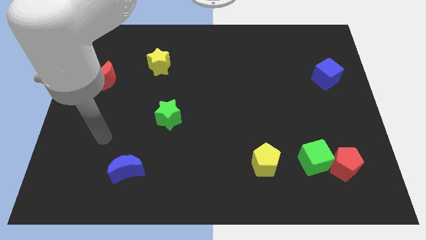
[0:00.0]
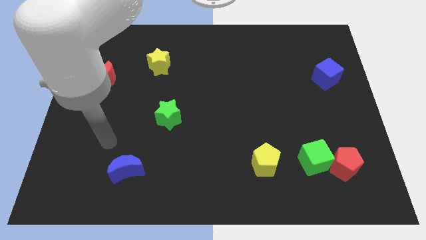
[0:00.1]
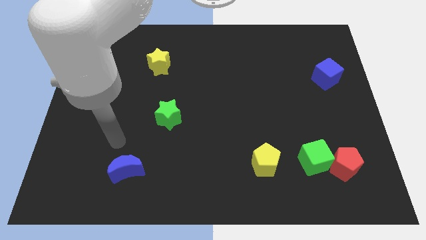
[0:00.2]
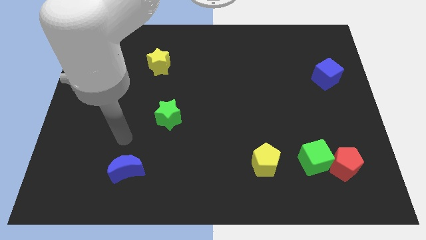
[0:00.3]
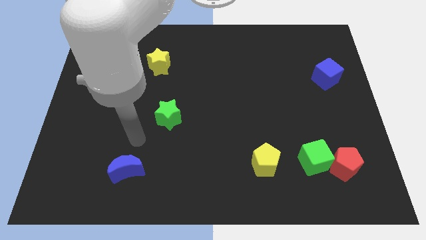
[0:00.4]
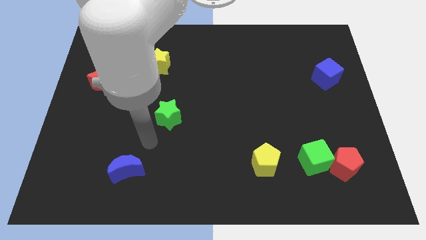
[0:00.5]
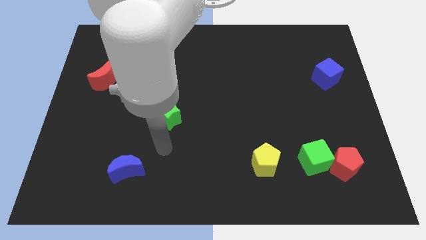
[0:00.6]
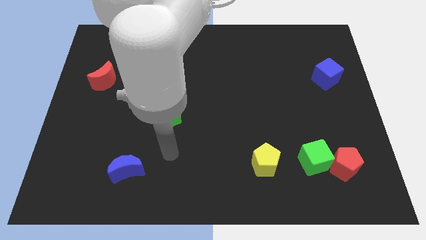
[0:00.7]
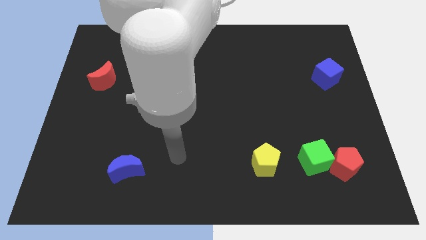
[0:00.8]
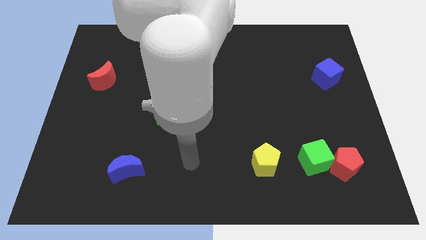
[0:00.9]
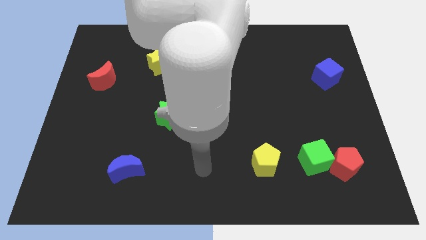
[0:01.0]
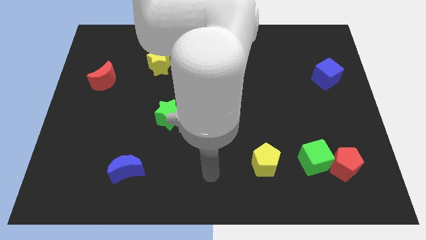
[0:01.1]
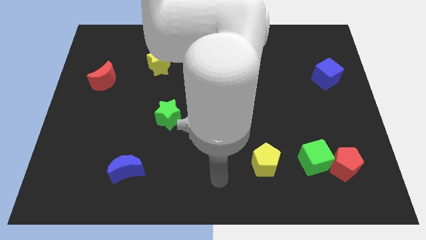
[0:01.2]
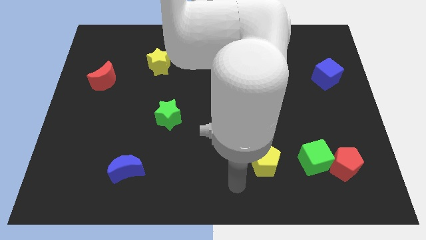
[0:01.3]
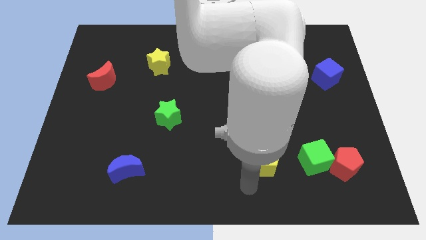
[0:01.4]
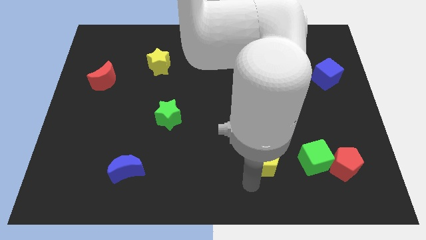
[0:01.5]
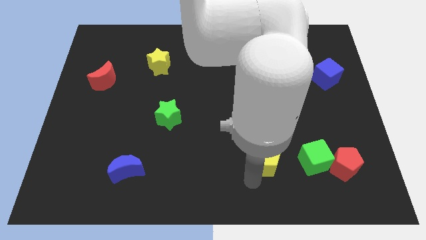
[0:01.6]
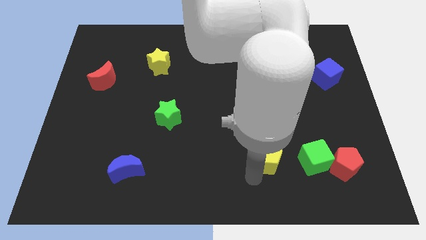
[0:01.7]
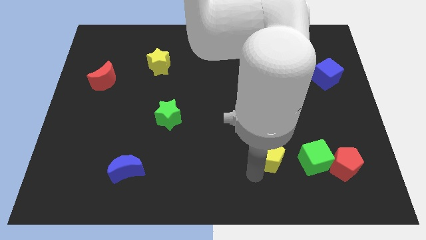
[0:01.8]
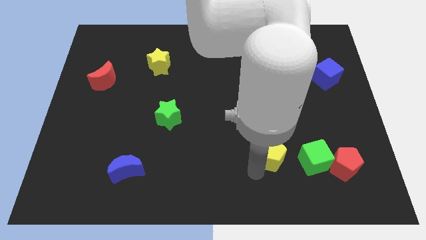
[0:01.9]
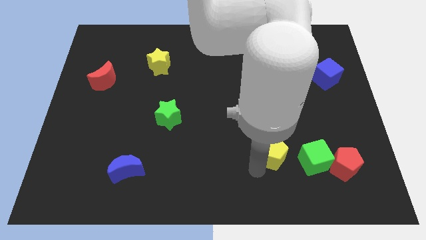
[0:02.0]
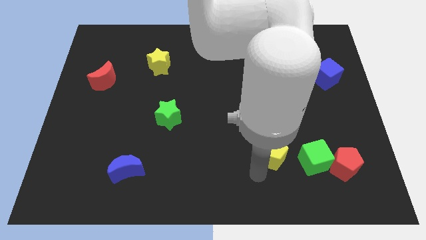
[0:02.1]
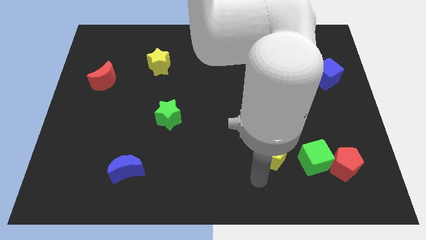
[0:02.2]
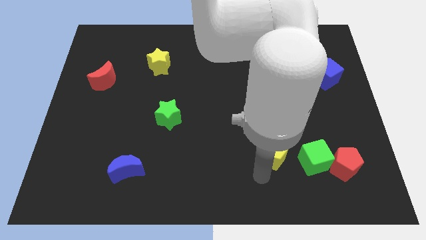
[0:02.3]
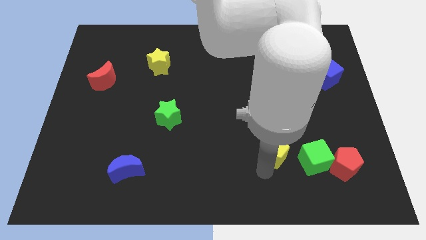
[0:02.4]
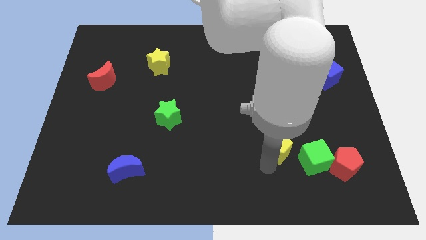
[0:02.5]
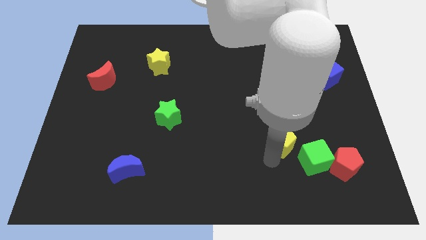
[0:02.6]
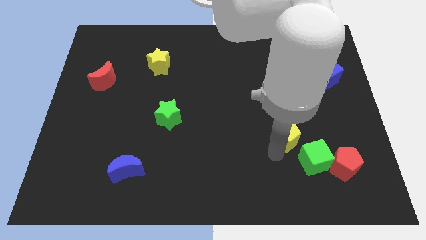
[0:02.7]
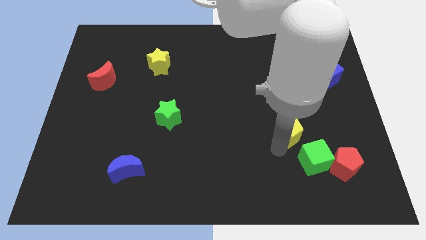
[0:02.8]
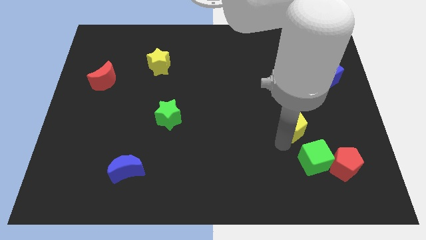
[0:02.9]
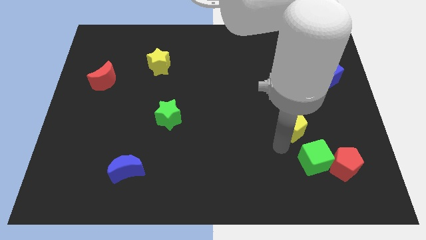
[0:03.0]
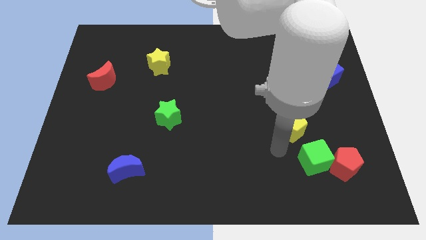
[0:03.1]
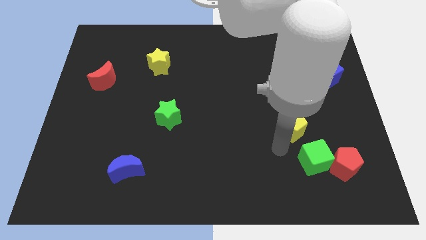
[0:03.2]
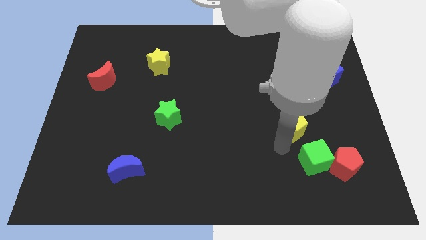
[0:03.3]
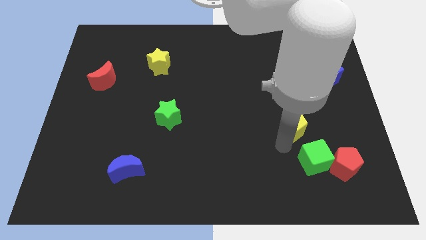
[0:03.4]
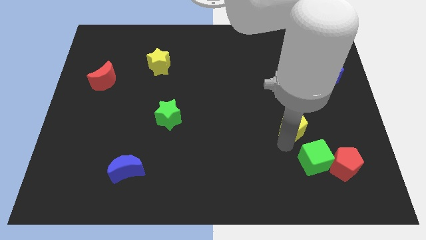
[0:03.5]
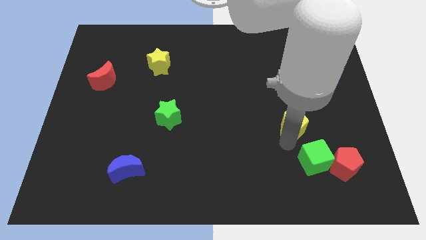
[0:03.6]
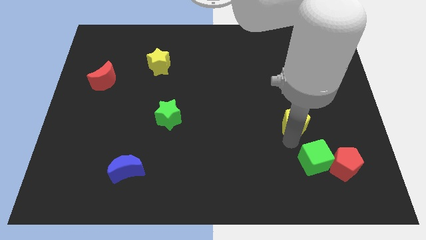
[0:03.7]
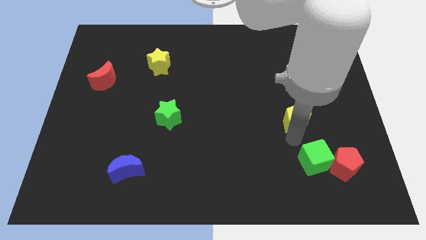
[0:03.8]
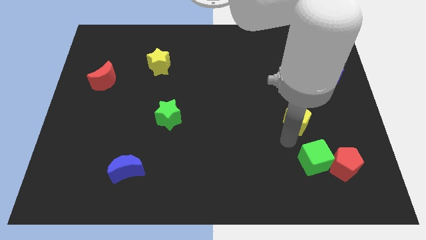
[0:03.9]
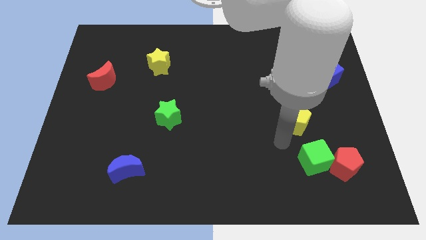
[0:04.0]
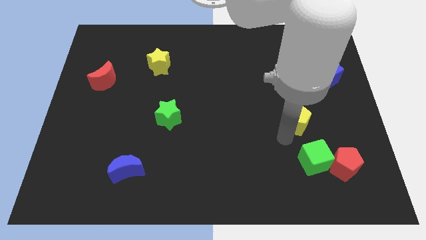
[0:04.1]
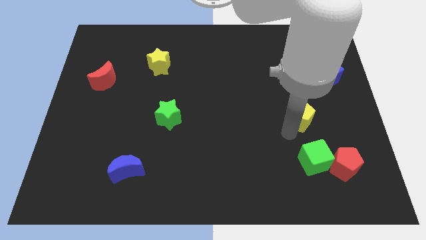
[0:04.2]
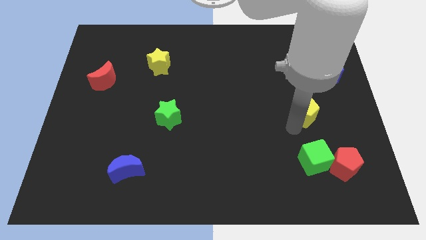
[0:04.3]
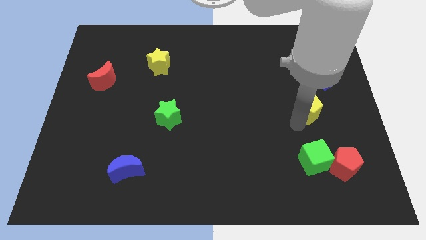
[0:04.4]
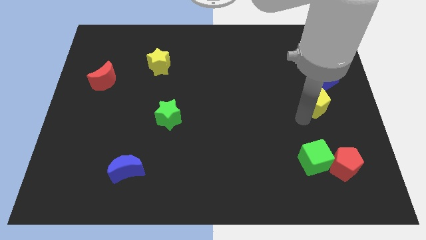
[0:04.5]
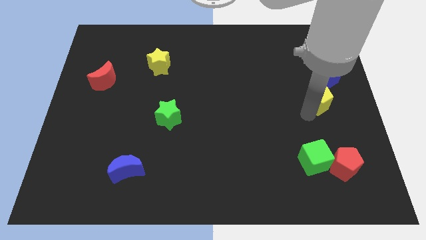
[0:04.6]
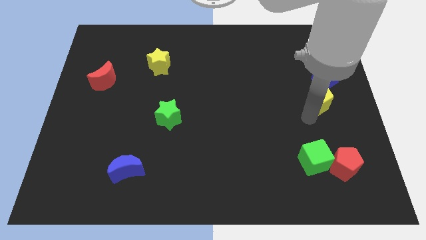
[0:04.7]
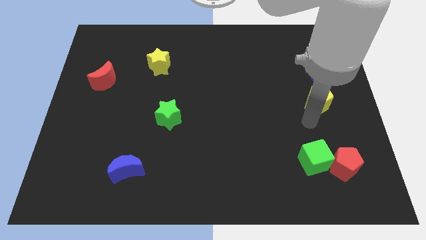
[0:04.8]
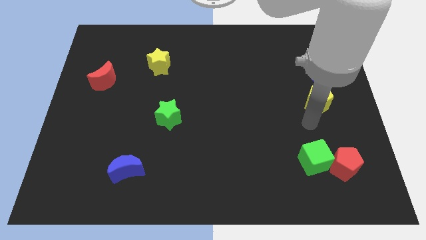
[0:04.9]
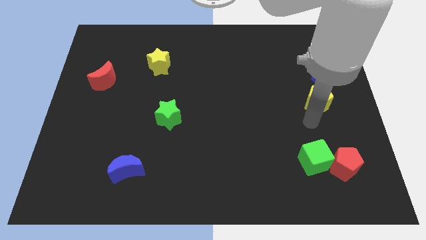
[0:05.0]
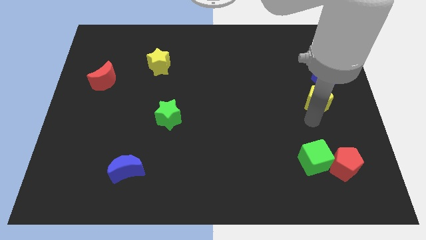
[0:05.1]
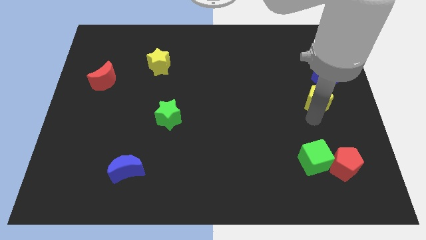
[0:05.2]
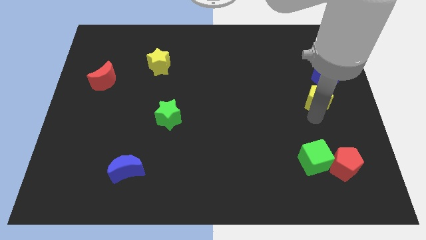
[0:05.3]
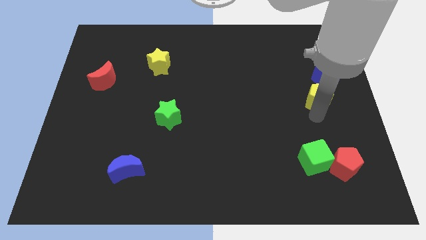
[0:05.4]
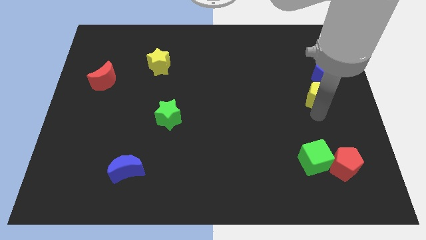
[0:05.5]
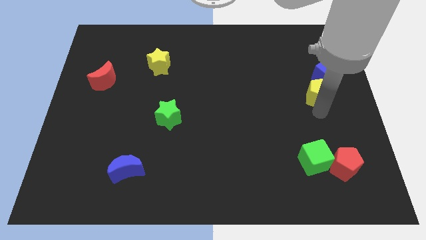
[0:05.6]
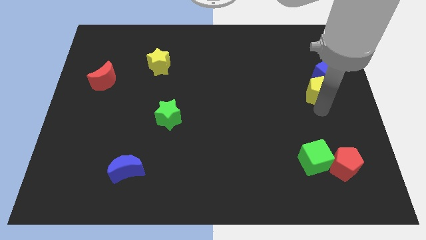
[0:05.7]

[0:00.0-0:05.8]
move the yellow pentagon to the blue cube

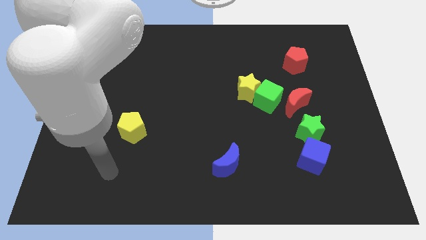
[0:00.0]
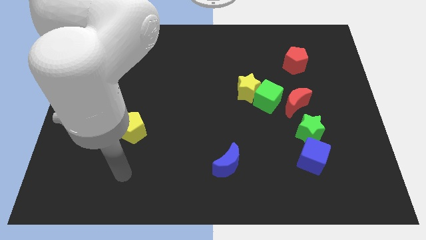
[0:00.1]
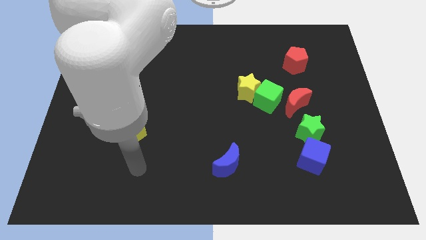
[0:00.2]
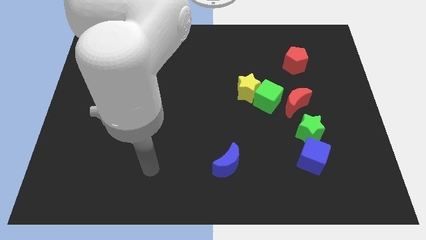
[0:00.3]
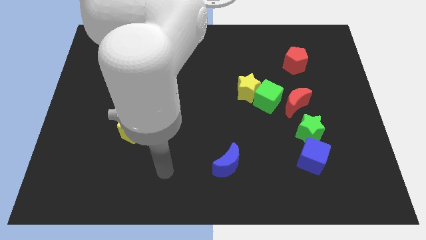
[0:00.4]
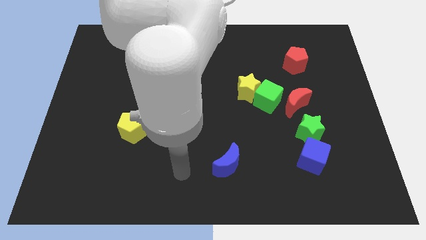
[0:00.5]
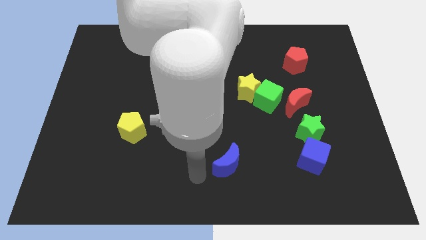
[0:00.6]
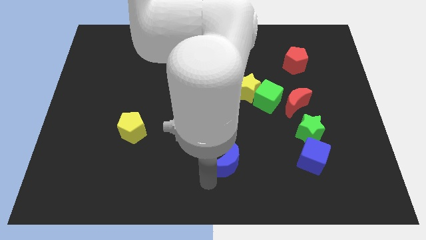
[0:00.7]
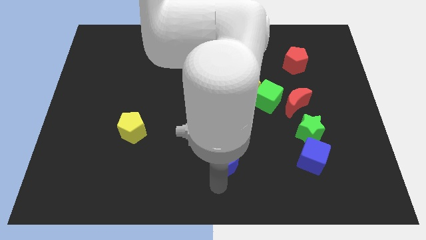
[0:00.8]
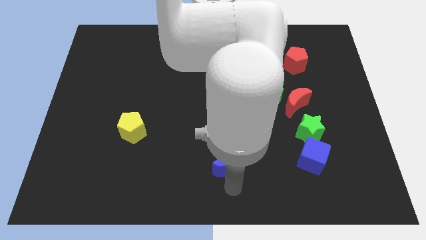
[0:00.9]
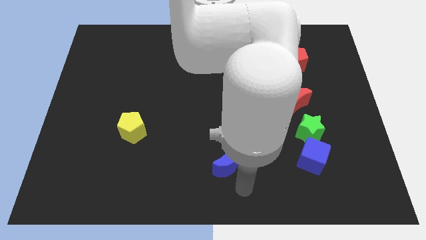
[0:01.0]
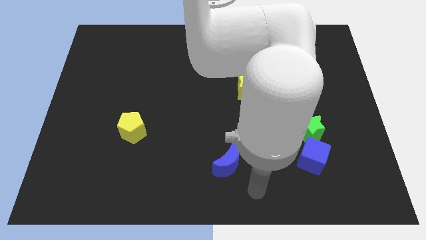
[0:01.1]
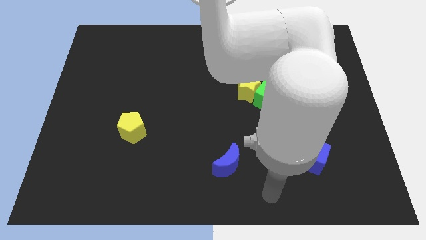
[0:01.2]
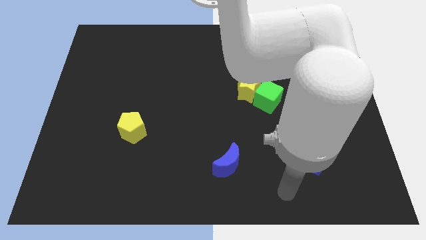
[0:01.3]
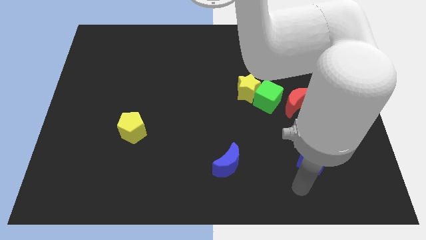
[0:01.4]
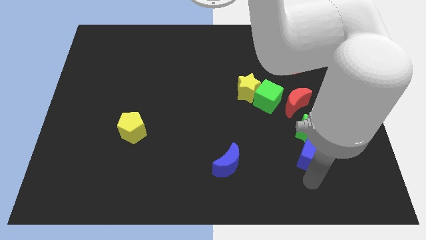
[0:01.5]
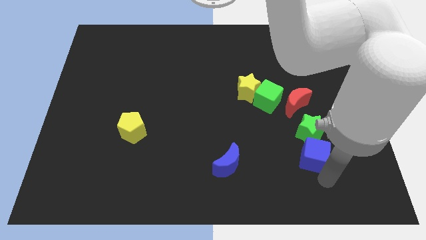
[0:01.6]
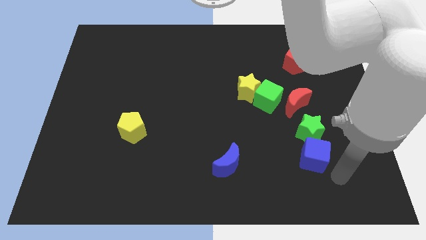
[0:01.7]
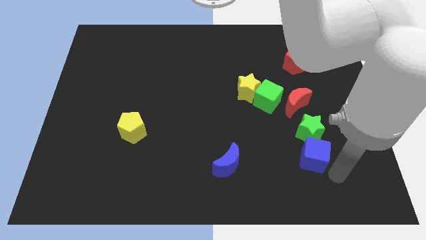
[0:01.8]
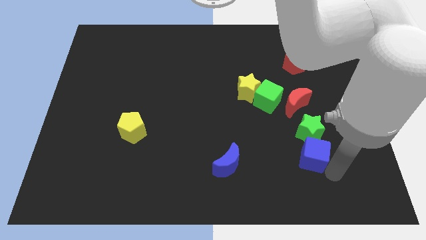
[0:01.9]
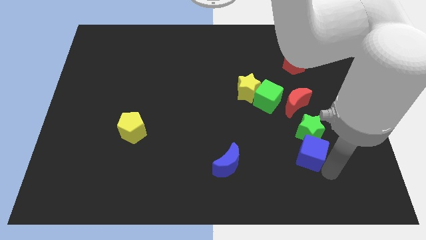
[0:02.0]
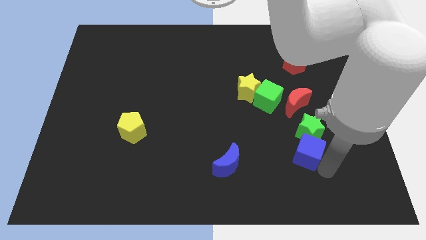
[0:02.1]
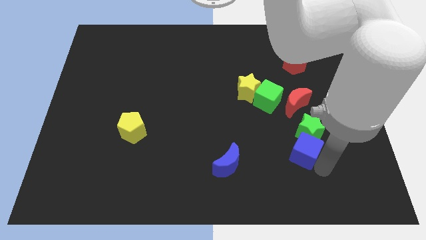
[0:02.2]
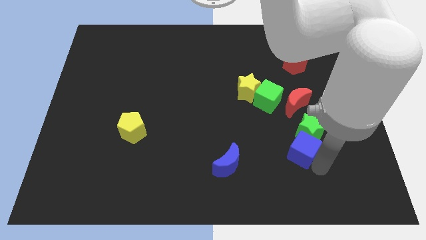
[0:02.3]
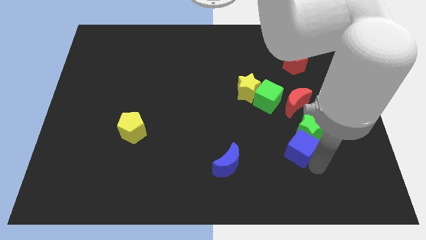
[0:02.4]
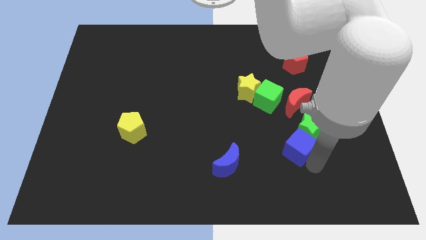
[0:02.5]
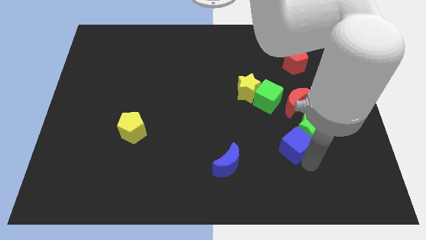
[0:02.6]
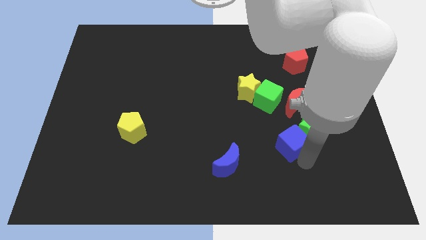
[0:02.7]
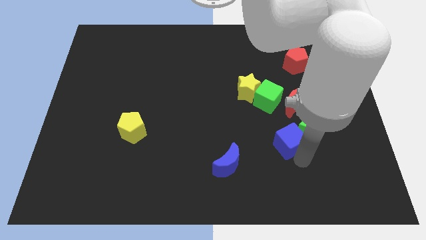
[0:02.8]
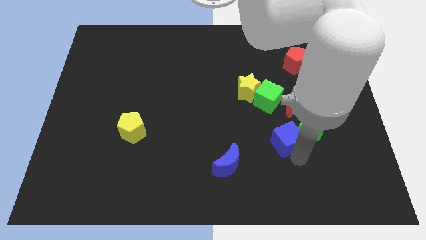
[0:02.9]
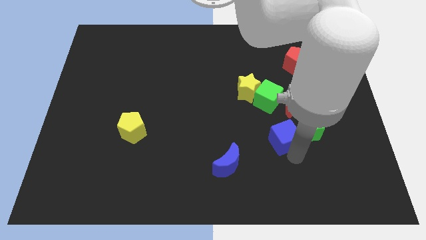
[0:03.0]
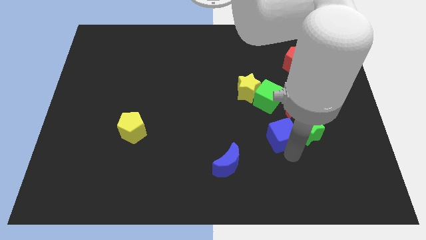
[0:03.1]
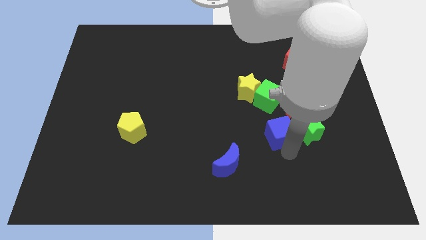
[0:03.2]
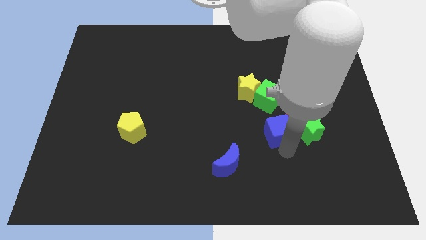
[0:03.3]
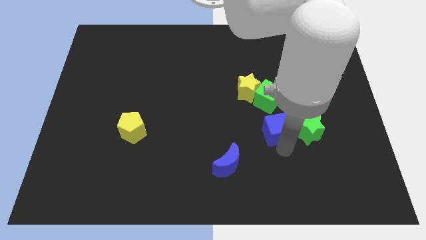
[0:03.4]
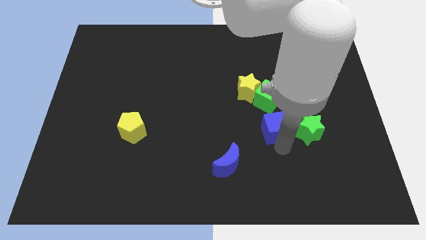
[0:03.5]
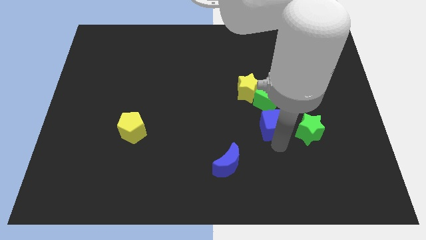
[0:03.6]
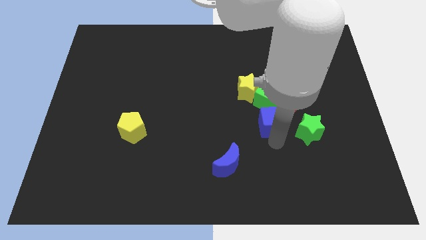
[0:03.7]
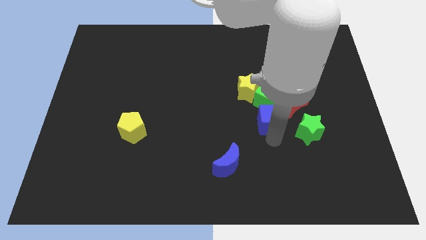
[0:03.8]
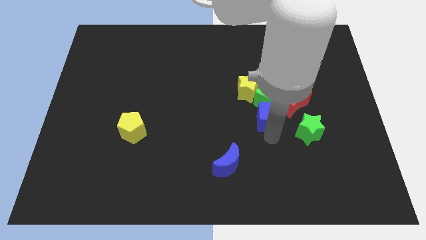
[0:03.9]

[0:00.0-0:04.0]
push the blue cube next to the green cube
